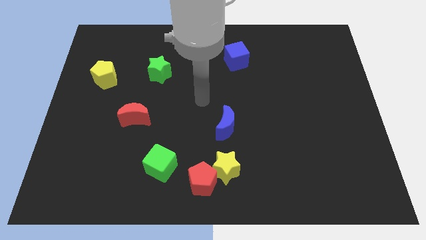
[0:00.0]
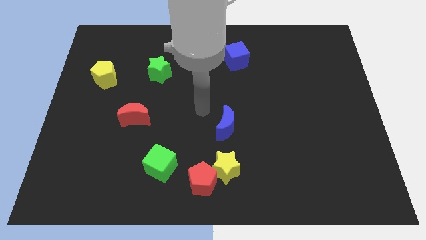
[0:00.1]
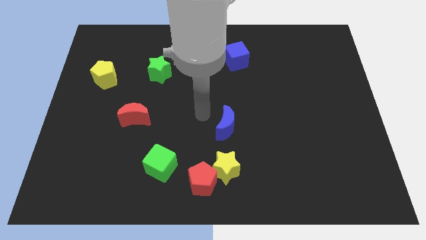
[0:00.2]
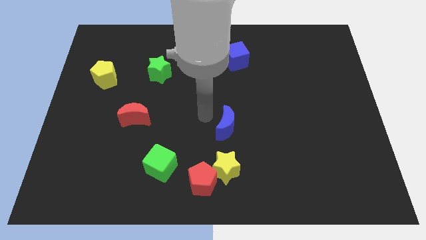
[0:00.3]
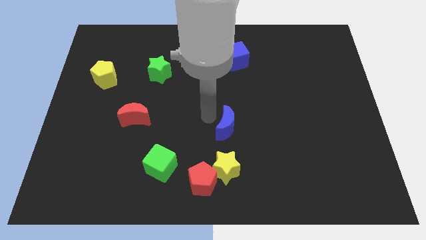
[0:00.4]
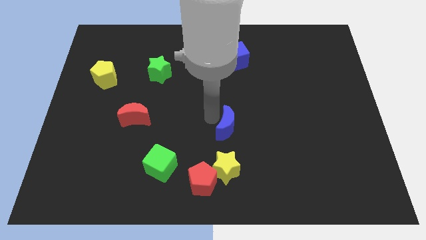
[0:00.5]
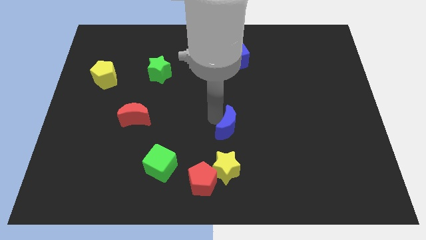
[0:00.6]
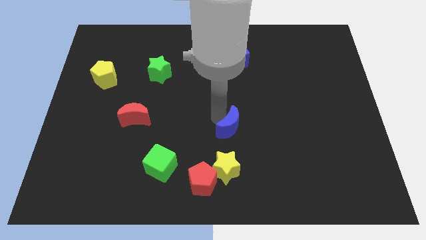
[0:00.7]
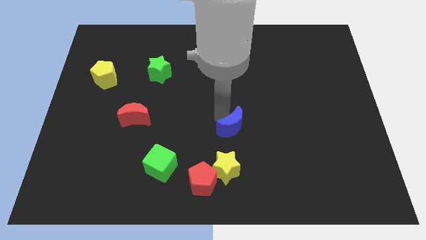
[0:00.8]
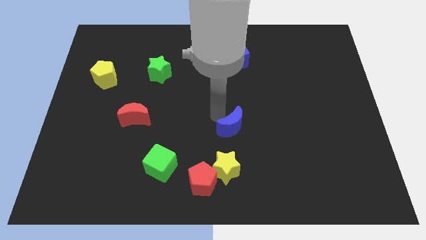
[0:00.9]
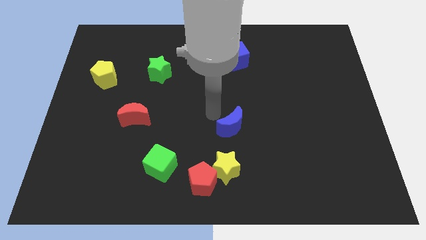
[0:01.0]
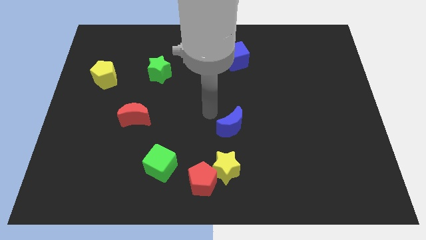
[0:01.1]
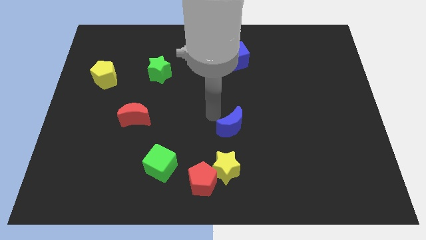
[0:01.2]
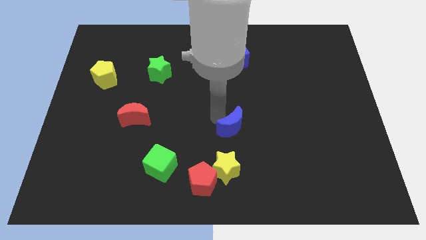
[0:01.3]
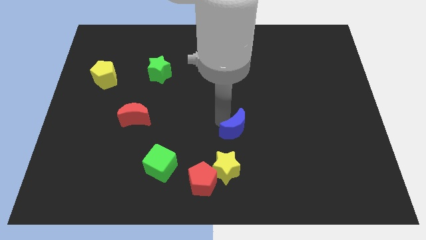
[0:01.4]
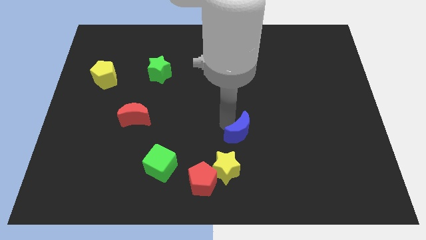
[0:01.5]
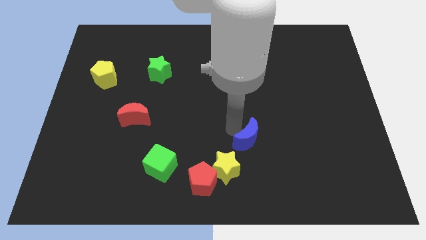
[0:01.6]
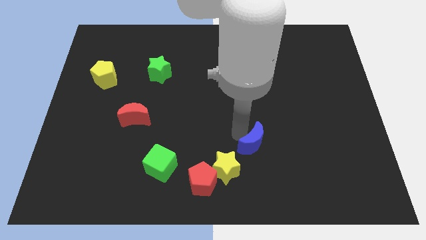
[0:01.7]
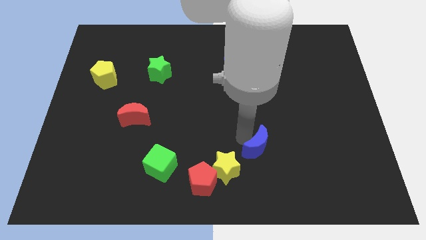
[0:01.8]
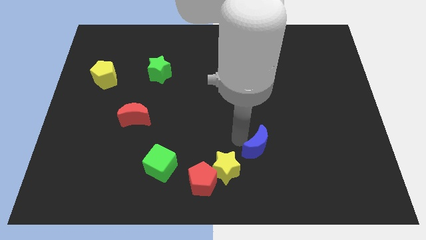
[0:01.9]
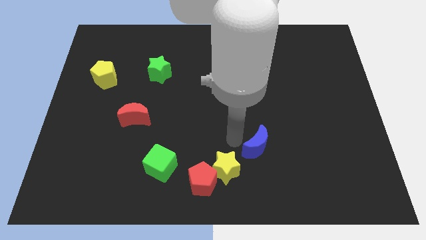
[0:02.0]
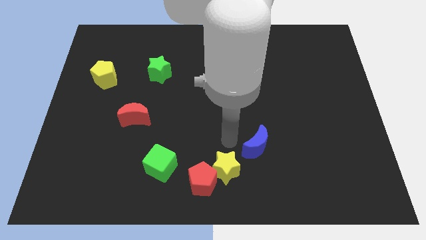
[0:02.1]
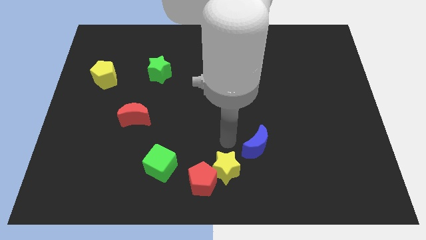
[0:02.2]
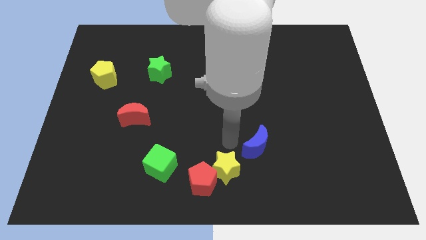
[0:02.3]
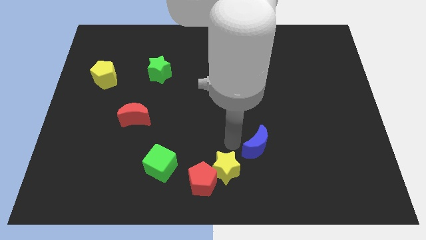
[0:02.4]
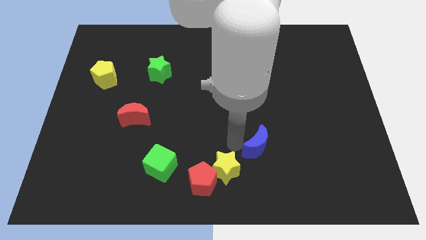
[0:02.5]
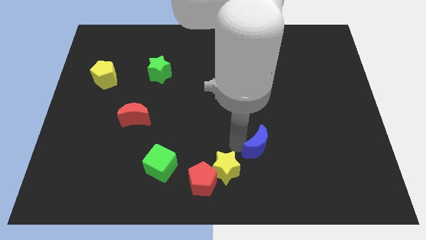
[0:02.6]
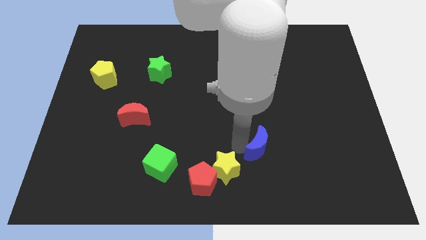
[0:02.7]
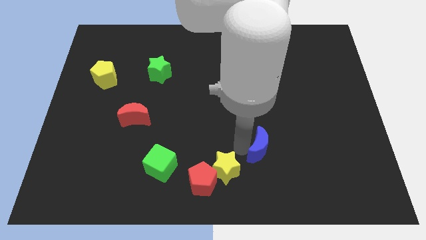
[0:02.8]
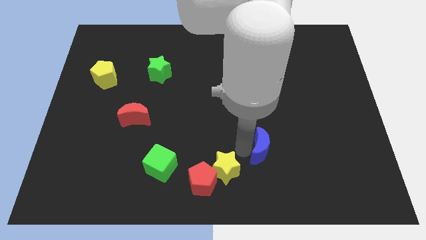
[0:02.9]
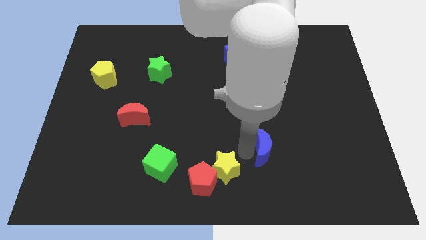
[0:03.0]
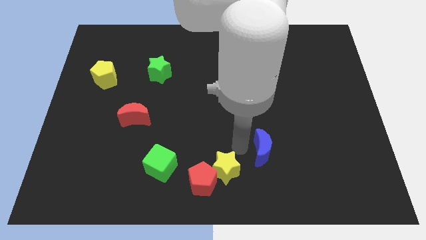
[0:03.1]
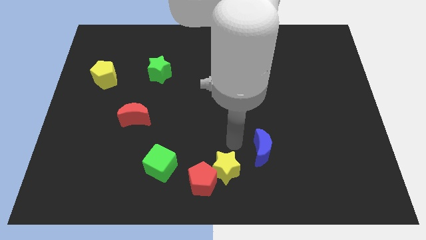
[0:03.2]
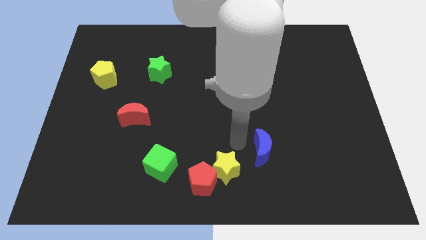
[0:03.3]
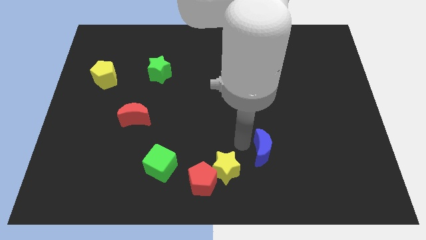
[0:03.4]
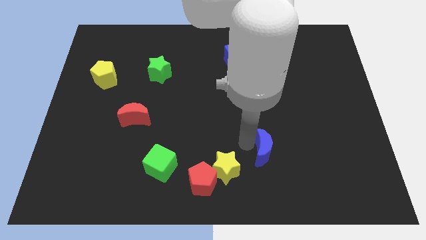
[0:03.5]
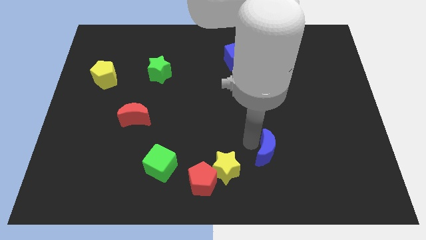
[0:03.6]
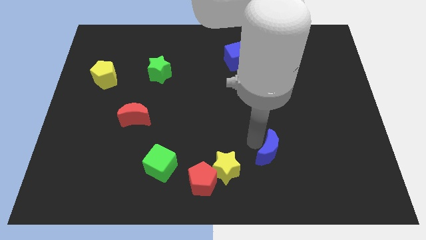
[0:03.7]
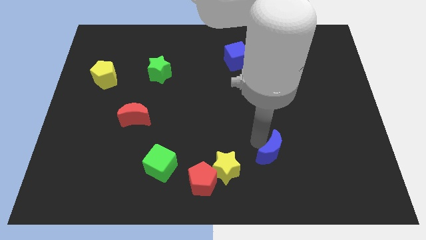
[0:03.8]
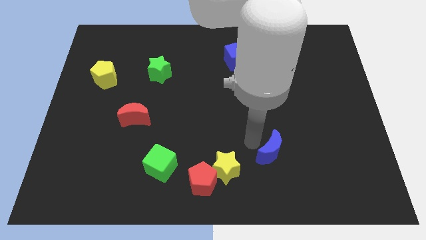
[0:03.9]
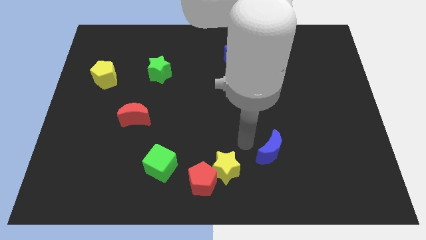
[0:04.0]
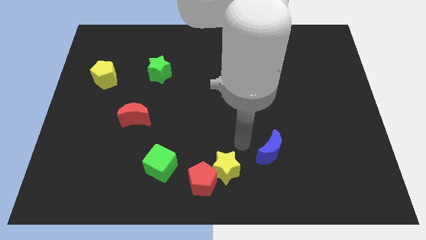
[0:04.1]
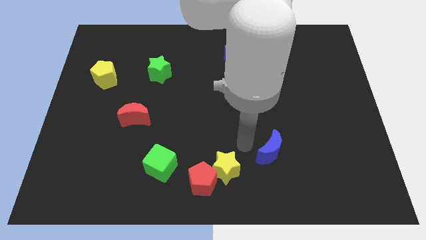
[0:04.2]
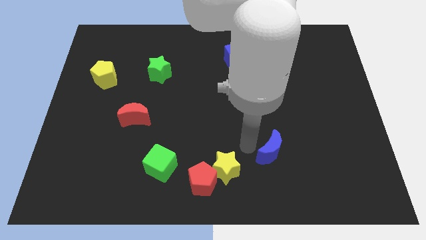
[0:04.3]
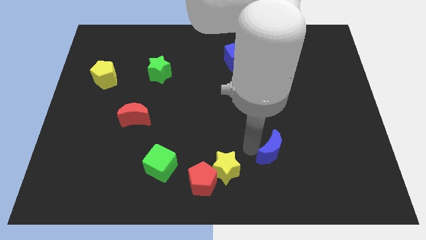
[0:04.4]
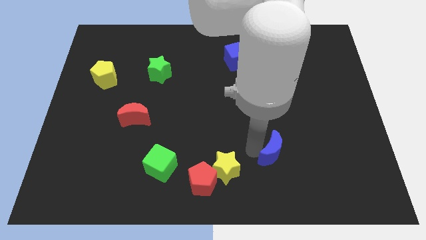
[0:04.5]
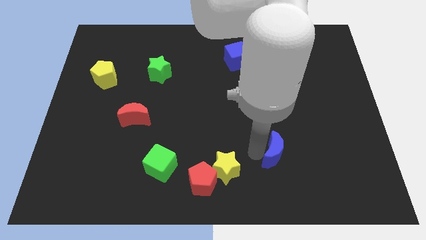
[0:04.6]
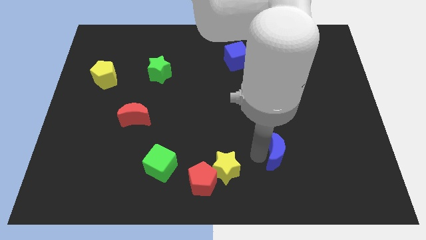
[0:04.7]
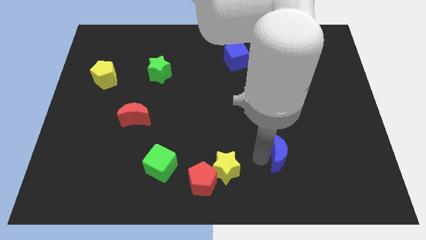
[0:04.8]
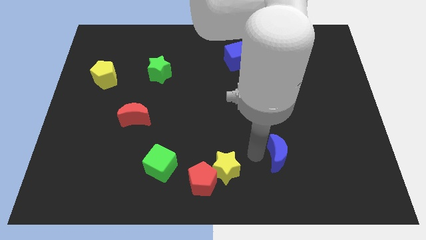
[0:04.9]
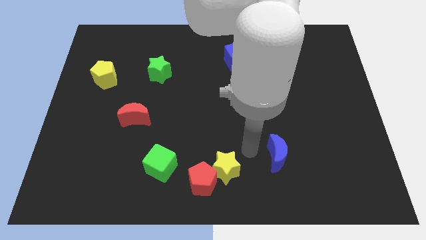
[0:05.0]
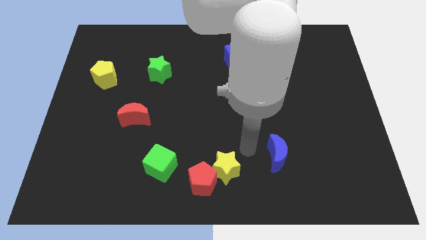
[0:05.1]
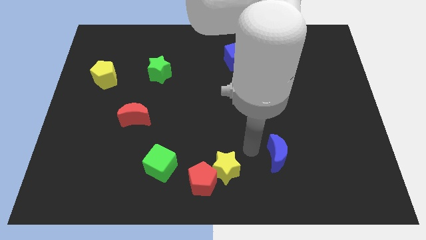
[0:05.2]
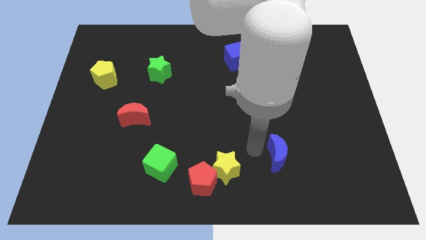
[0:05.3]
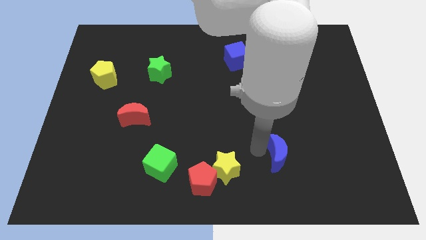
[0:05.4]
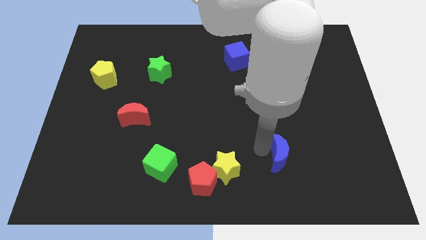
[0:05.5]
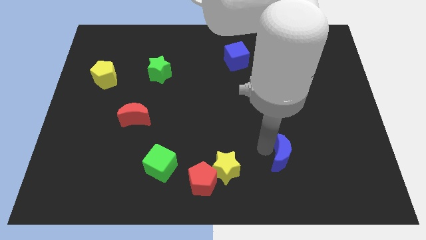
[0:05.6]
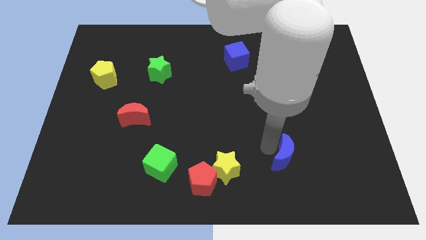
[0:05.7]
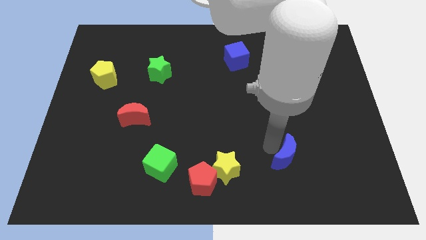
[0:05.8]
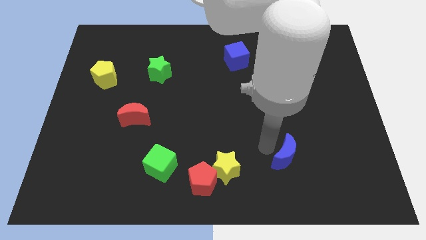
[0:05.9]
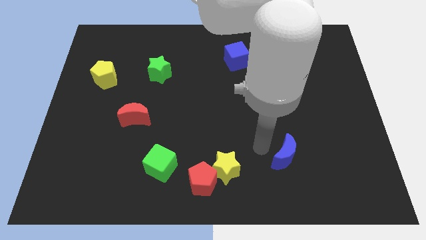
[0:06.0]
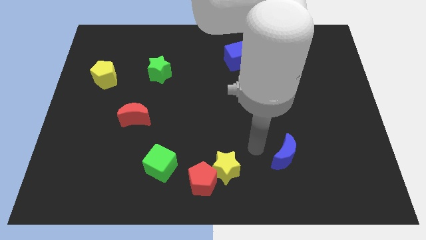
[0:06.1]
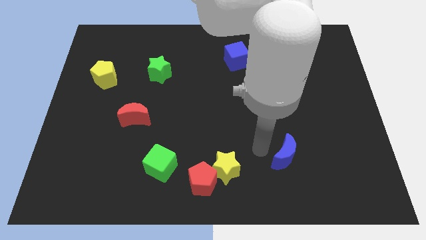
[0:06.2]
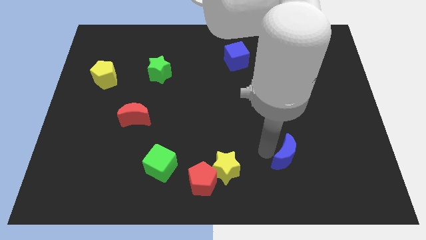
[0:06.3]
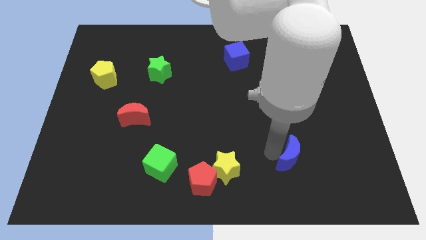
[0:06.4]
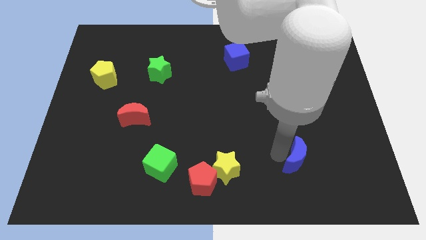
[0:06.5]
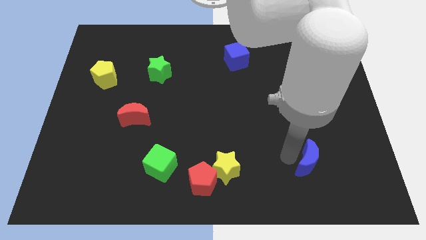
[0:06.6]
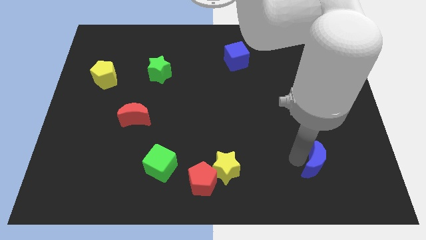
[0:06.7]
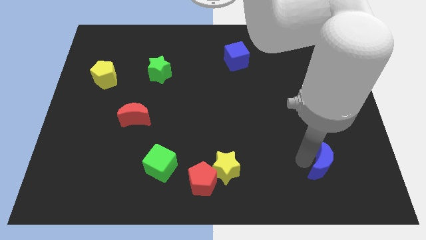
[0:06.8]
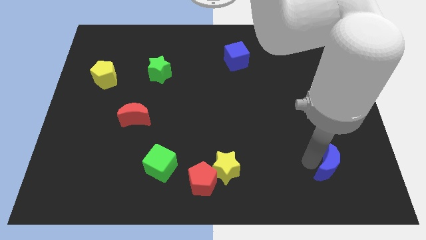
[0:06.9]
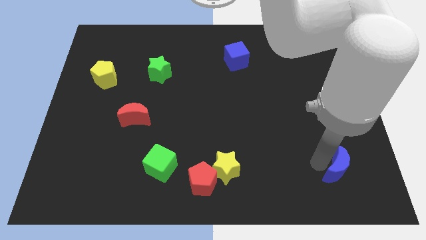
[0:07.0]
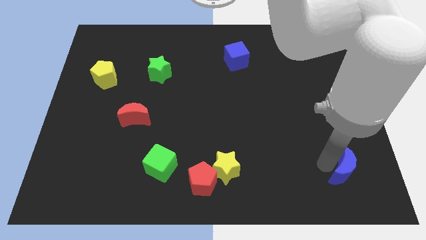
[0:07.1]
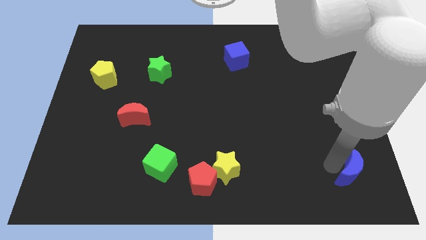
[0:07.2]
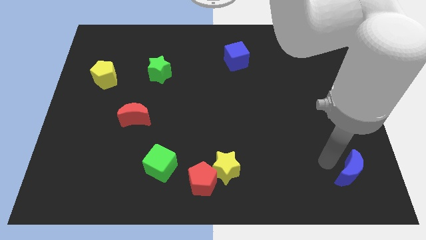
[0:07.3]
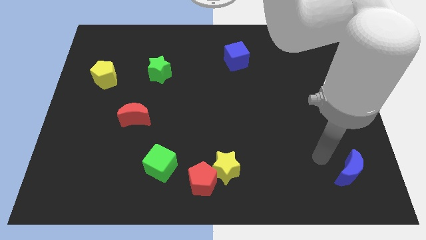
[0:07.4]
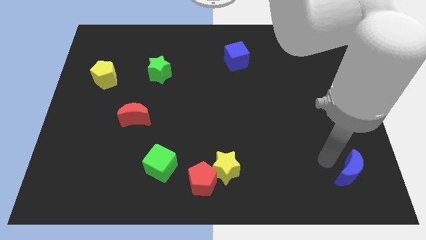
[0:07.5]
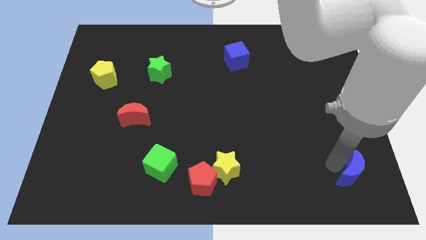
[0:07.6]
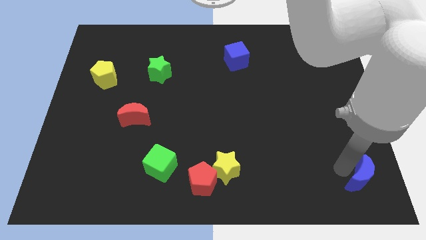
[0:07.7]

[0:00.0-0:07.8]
push the blue moon to the bottom right

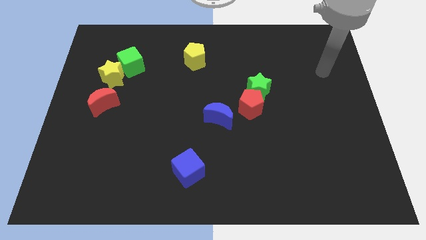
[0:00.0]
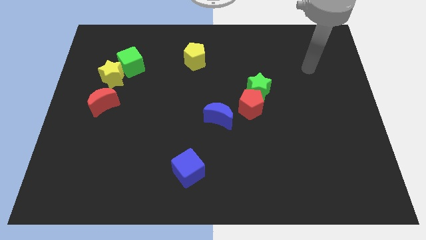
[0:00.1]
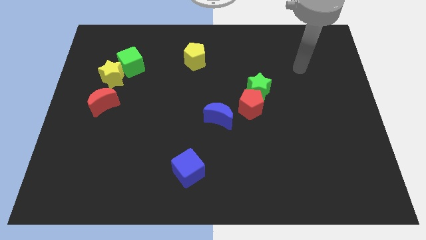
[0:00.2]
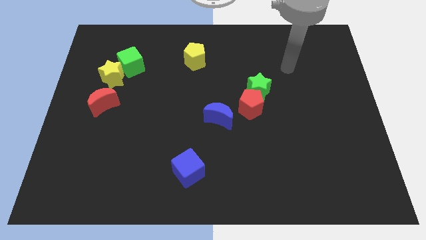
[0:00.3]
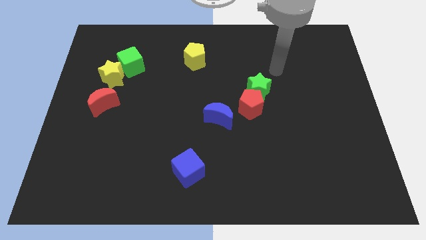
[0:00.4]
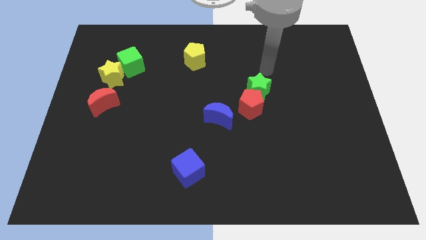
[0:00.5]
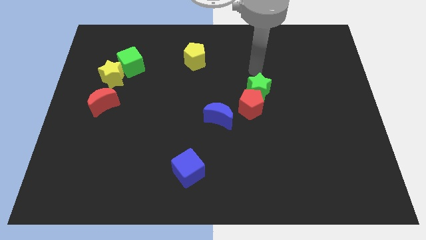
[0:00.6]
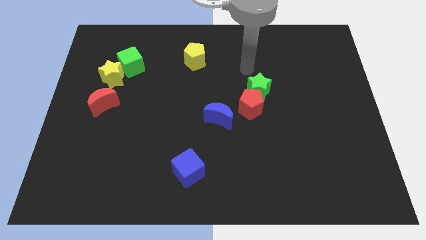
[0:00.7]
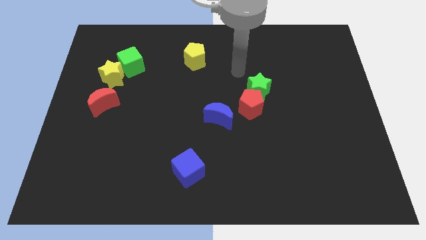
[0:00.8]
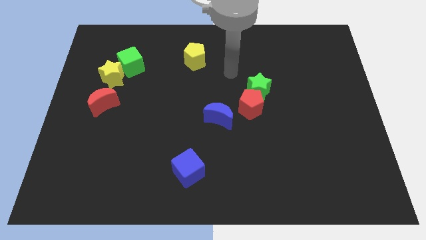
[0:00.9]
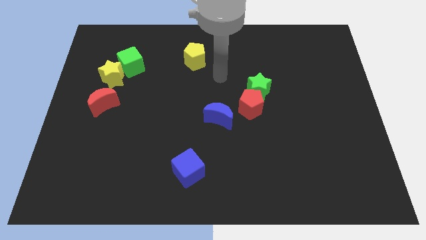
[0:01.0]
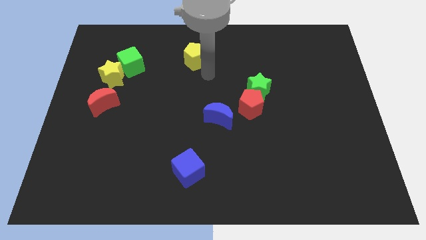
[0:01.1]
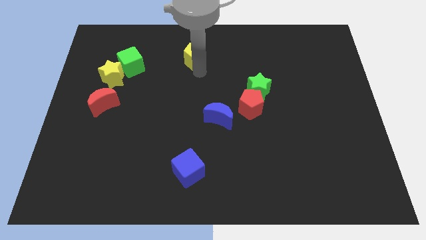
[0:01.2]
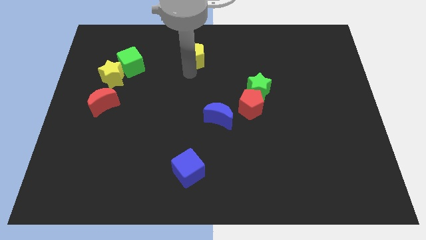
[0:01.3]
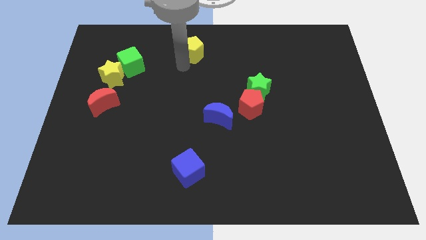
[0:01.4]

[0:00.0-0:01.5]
push the yellow pentagon to the top side
